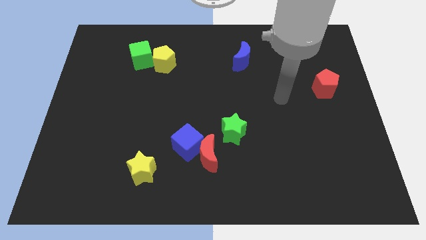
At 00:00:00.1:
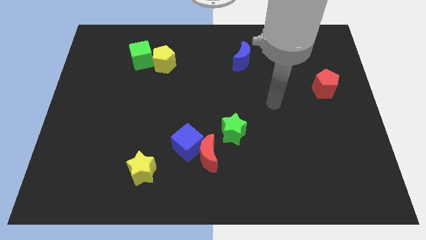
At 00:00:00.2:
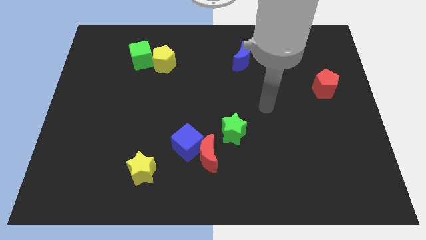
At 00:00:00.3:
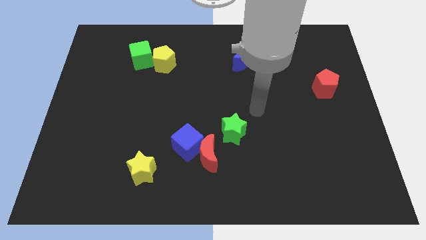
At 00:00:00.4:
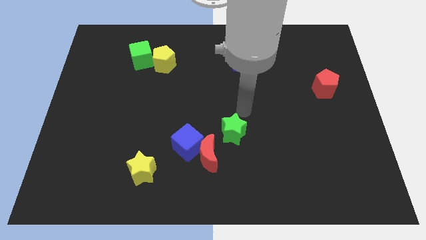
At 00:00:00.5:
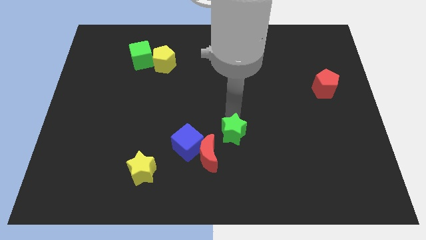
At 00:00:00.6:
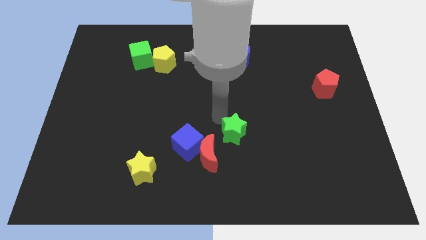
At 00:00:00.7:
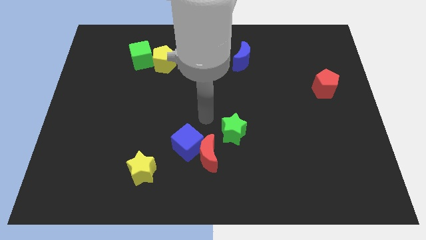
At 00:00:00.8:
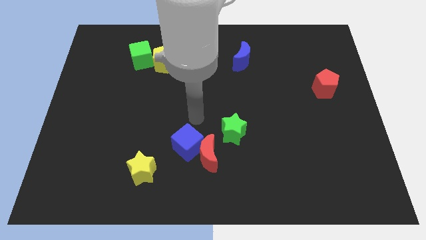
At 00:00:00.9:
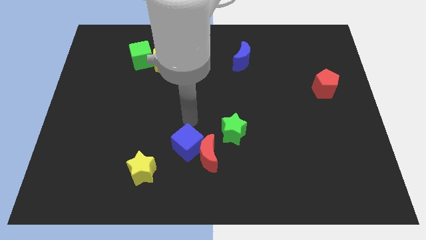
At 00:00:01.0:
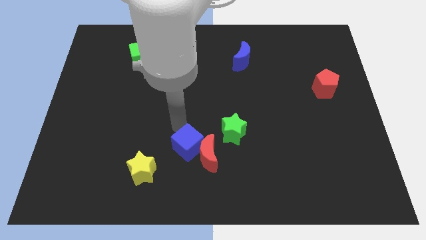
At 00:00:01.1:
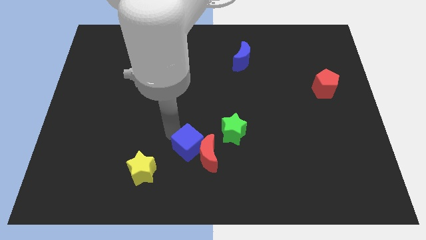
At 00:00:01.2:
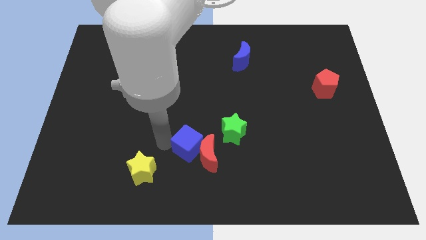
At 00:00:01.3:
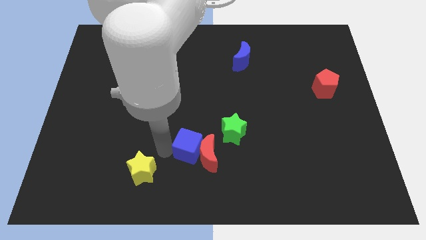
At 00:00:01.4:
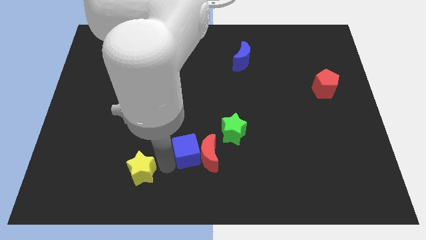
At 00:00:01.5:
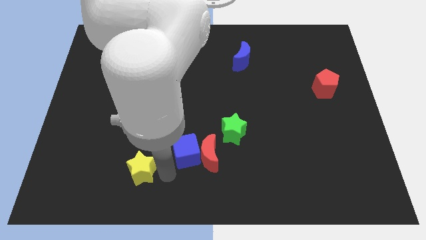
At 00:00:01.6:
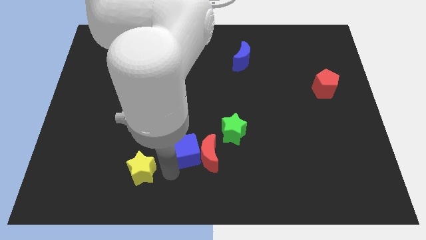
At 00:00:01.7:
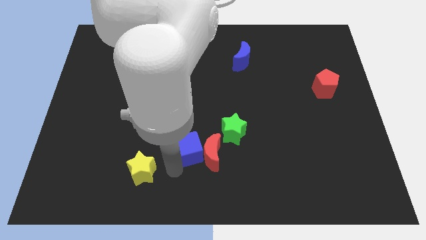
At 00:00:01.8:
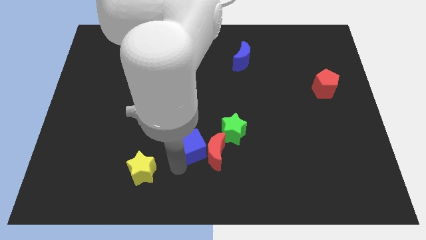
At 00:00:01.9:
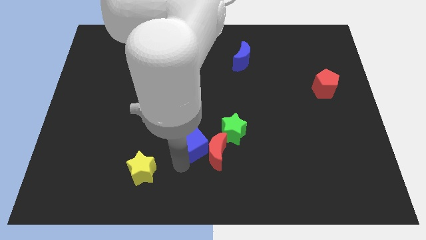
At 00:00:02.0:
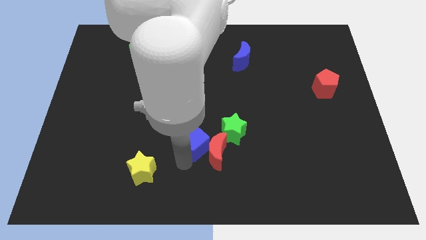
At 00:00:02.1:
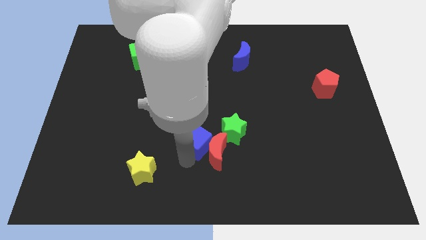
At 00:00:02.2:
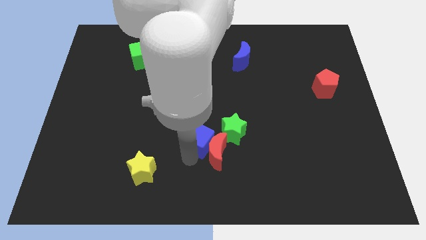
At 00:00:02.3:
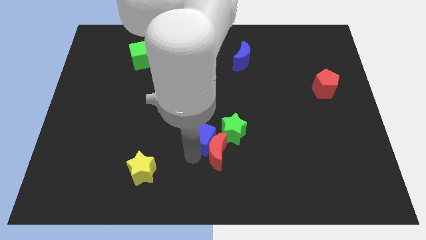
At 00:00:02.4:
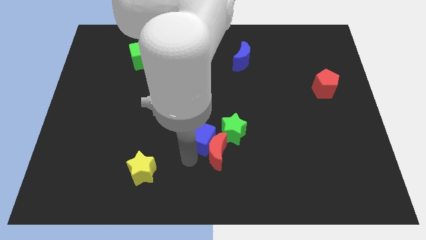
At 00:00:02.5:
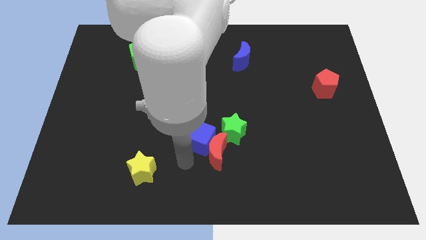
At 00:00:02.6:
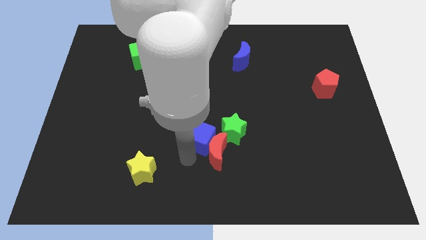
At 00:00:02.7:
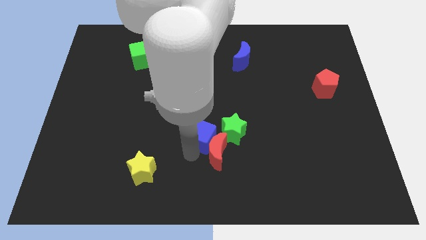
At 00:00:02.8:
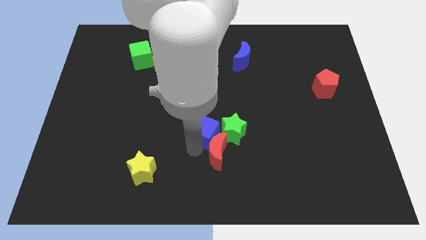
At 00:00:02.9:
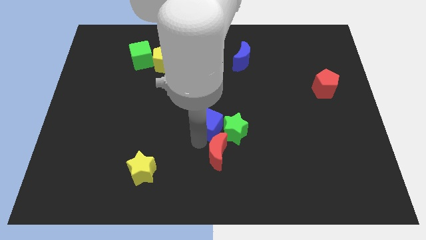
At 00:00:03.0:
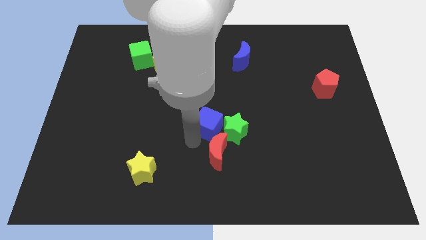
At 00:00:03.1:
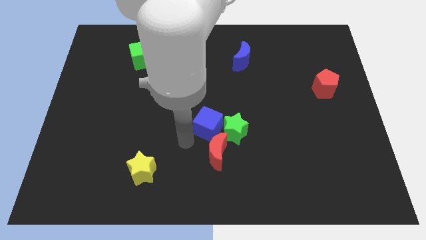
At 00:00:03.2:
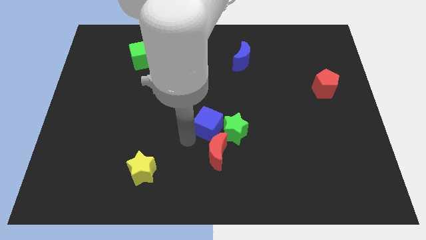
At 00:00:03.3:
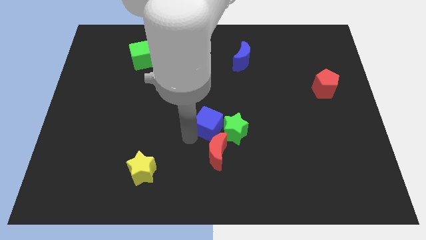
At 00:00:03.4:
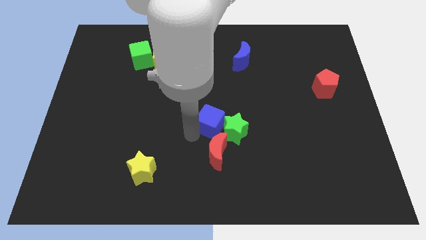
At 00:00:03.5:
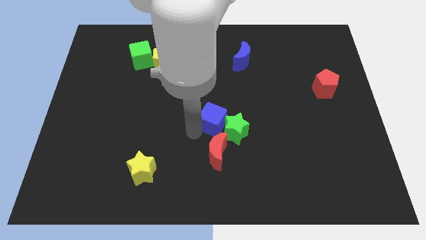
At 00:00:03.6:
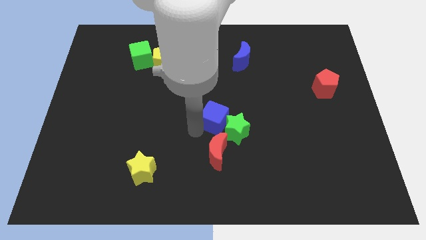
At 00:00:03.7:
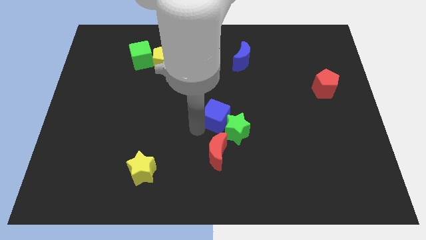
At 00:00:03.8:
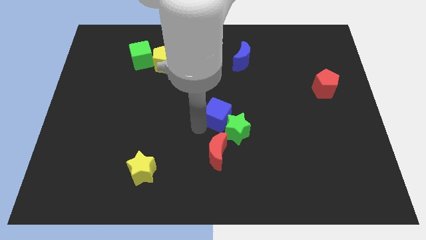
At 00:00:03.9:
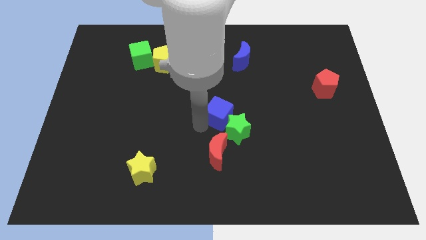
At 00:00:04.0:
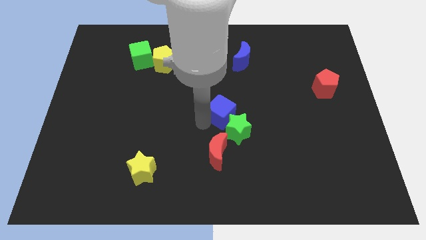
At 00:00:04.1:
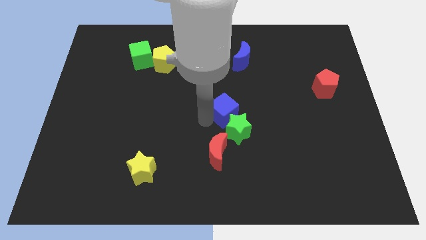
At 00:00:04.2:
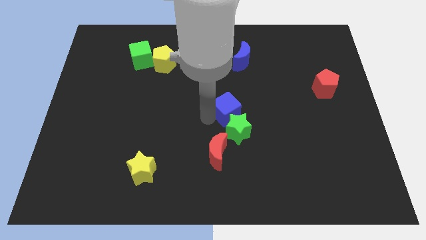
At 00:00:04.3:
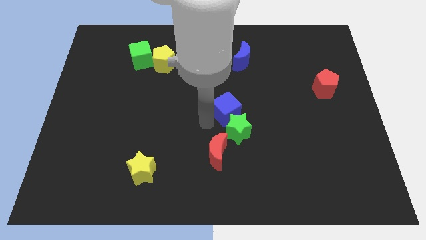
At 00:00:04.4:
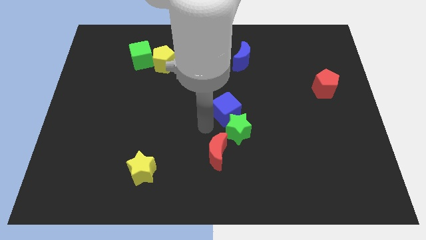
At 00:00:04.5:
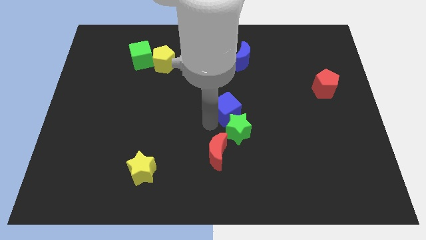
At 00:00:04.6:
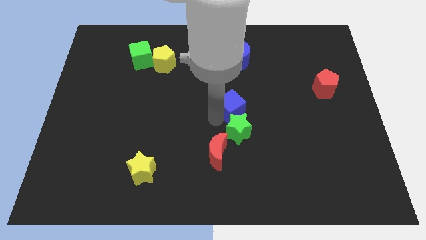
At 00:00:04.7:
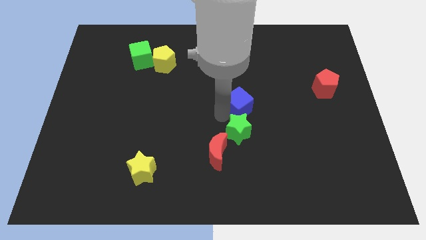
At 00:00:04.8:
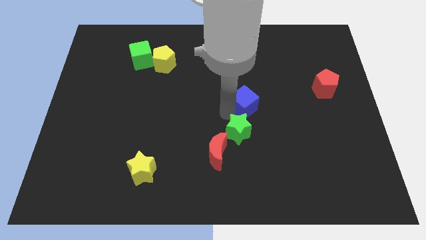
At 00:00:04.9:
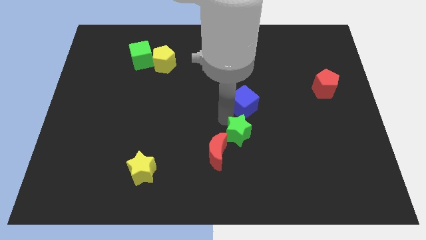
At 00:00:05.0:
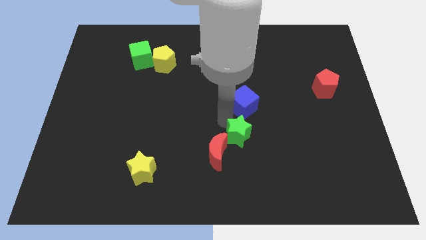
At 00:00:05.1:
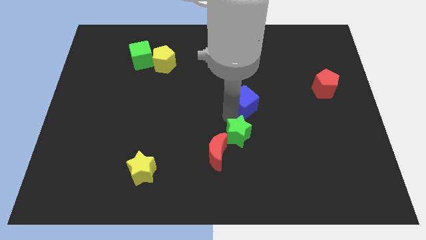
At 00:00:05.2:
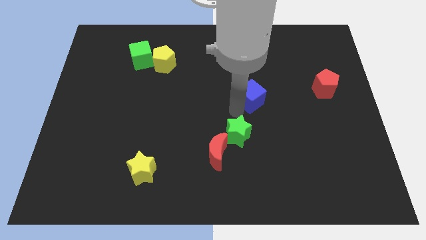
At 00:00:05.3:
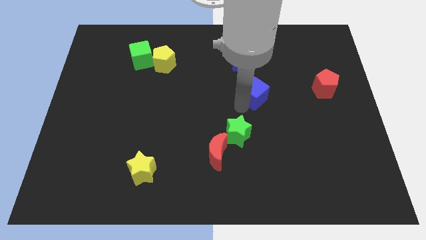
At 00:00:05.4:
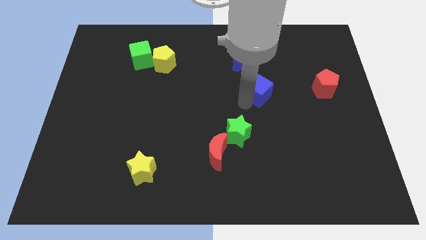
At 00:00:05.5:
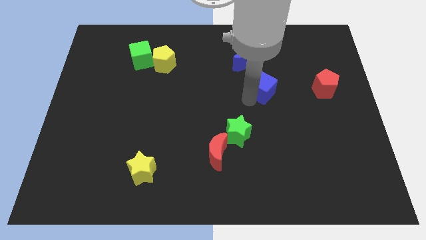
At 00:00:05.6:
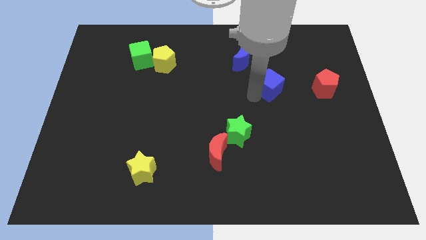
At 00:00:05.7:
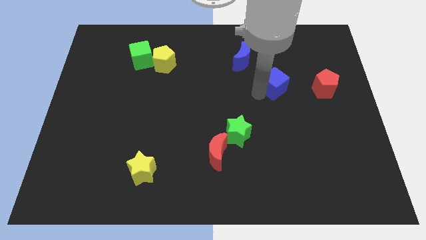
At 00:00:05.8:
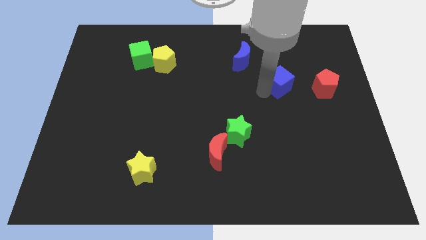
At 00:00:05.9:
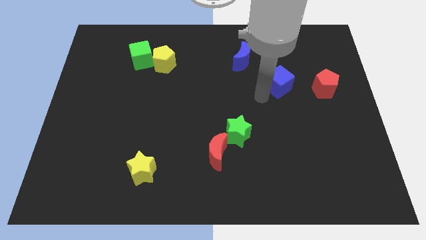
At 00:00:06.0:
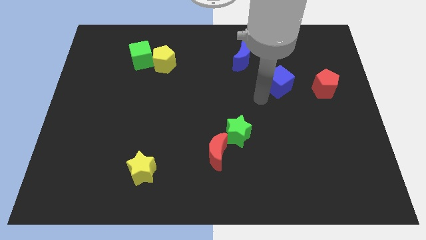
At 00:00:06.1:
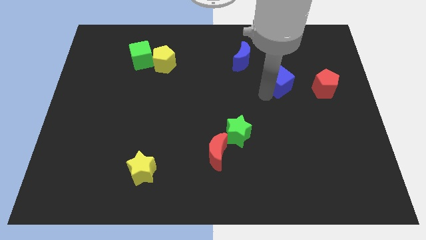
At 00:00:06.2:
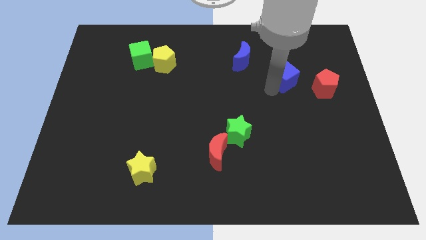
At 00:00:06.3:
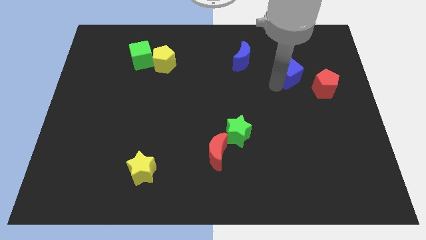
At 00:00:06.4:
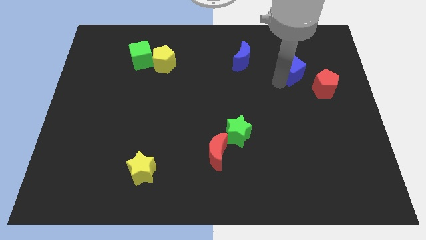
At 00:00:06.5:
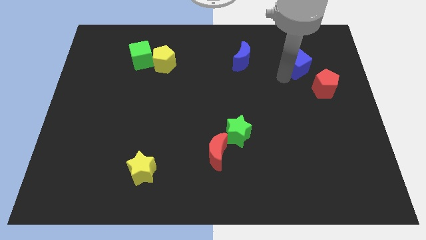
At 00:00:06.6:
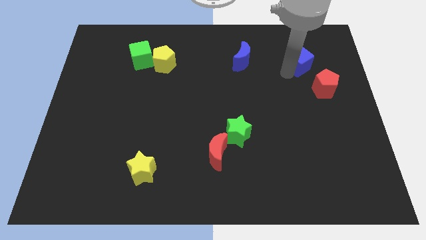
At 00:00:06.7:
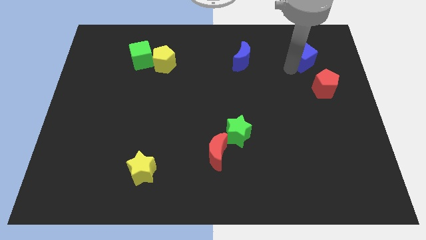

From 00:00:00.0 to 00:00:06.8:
move the blue cube above the red pentagon

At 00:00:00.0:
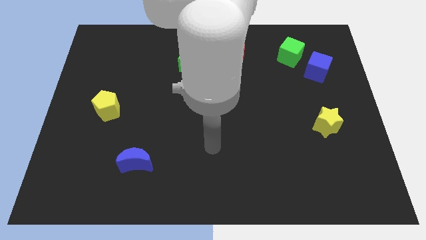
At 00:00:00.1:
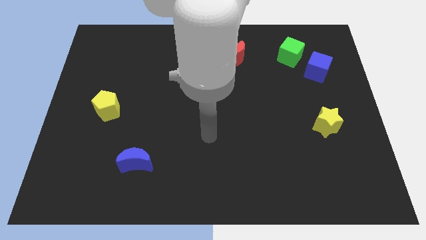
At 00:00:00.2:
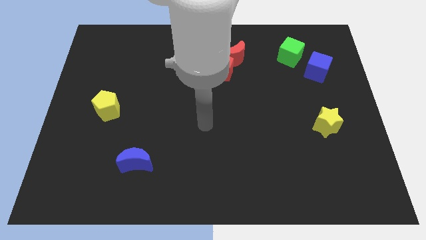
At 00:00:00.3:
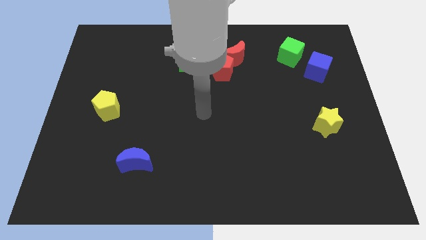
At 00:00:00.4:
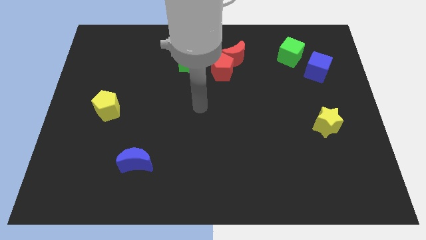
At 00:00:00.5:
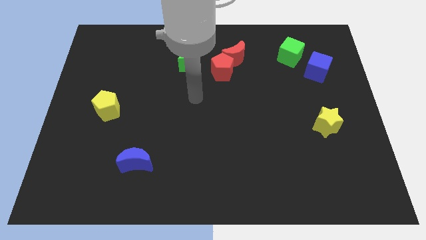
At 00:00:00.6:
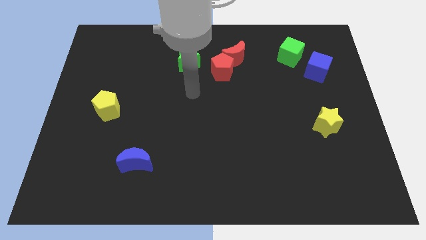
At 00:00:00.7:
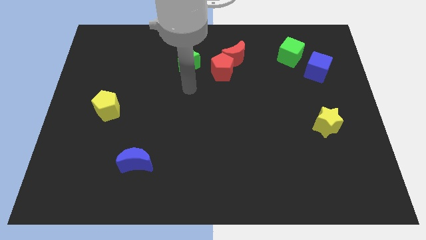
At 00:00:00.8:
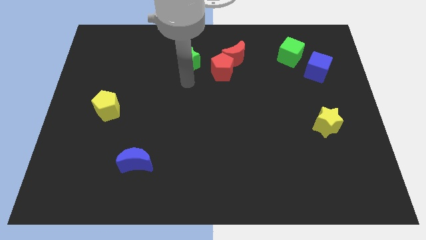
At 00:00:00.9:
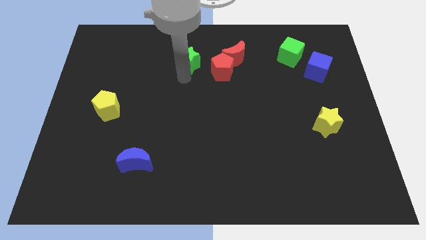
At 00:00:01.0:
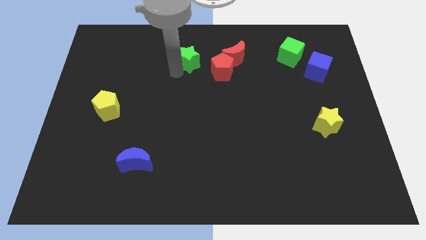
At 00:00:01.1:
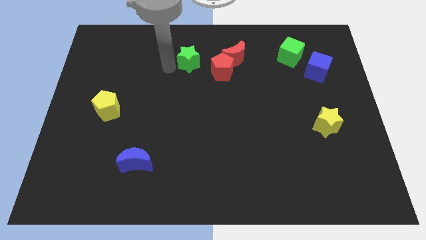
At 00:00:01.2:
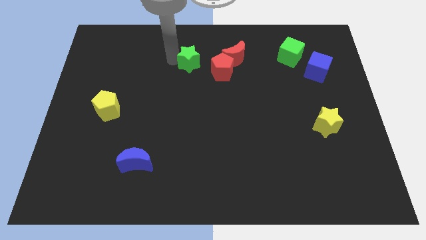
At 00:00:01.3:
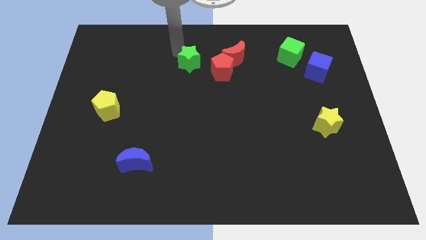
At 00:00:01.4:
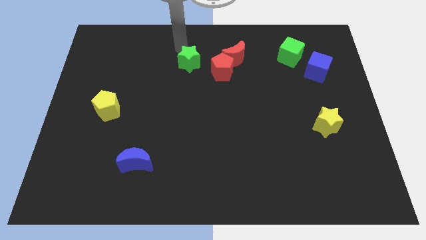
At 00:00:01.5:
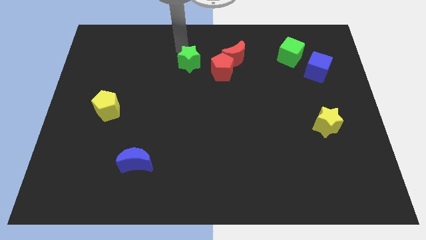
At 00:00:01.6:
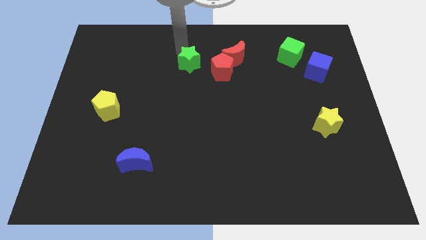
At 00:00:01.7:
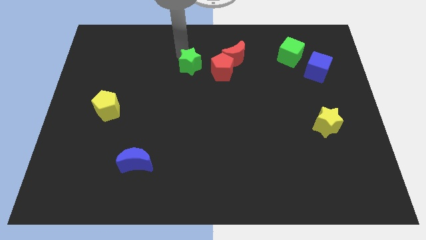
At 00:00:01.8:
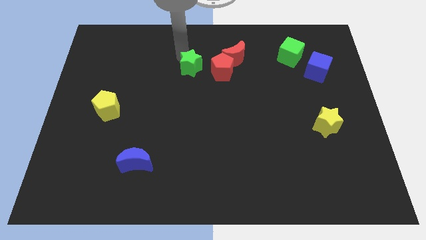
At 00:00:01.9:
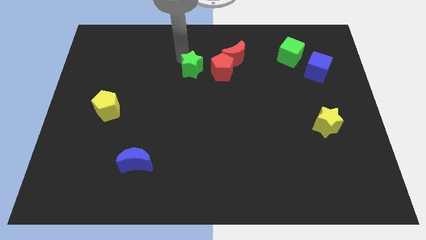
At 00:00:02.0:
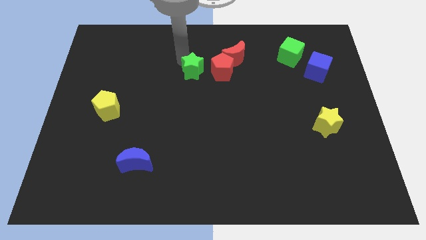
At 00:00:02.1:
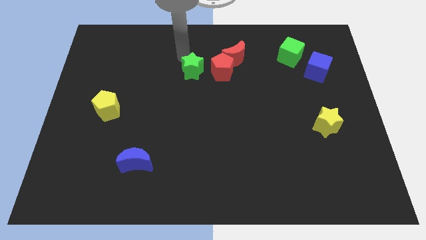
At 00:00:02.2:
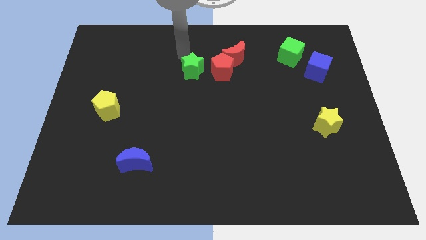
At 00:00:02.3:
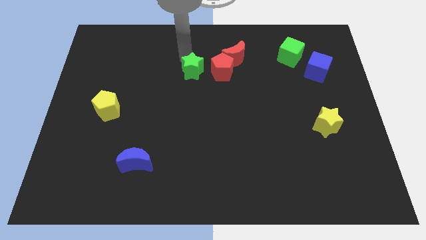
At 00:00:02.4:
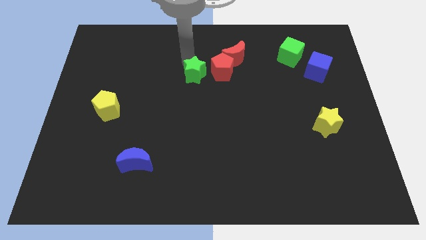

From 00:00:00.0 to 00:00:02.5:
slide the green star to the bottom left side of the red pentagon
